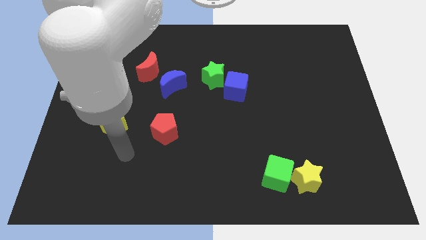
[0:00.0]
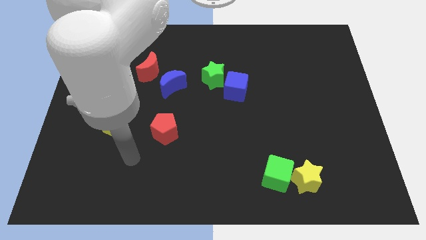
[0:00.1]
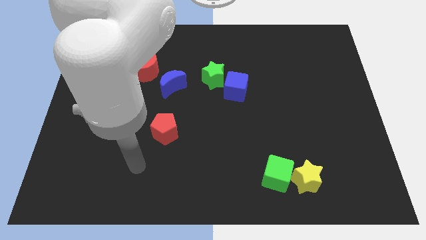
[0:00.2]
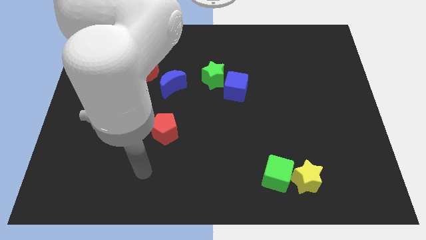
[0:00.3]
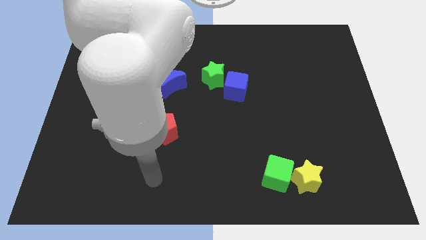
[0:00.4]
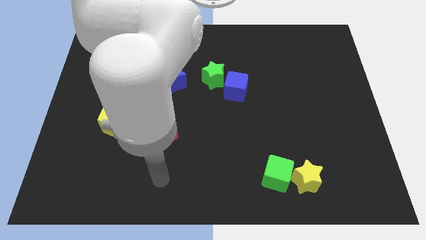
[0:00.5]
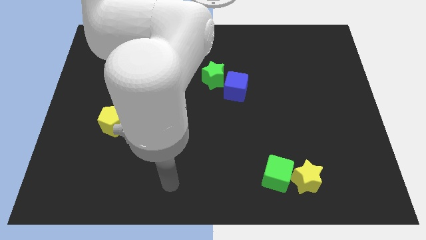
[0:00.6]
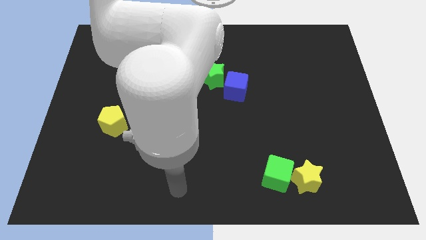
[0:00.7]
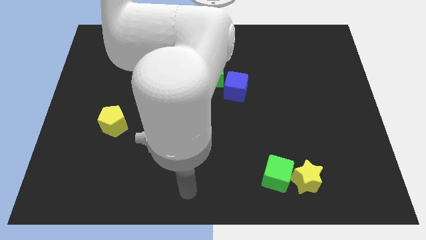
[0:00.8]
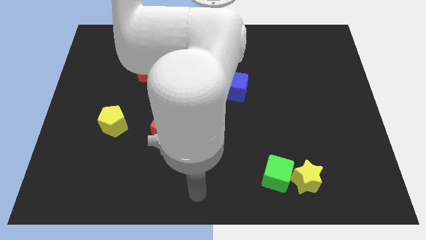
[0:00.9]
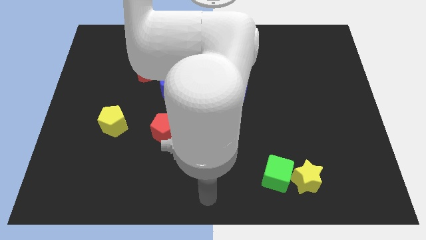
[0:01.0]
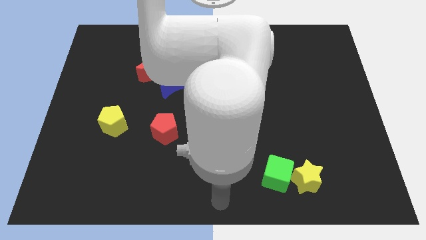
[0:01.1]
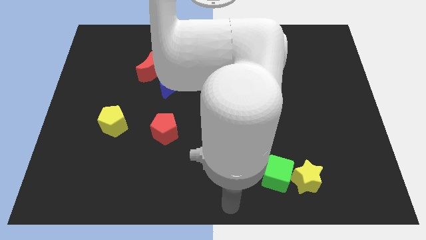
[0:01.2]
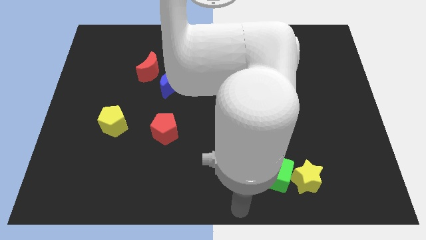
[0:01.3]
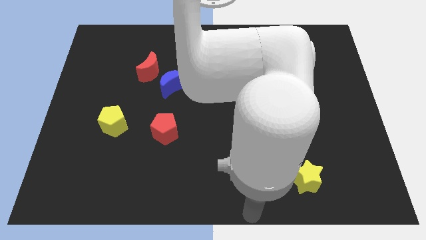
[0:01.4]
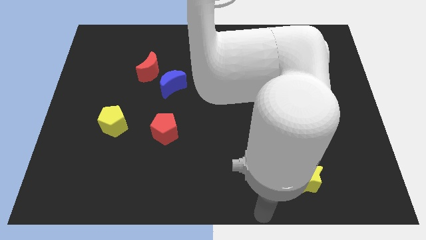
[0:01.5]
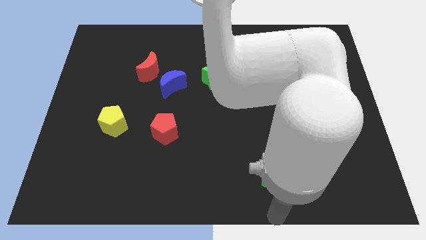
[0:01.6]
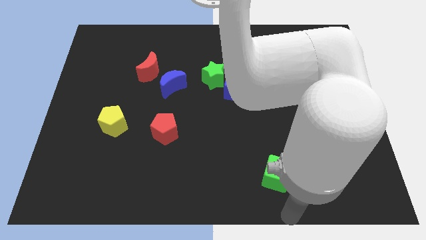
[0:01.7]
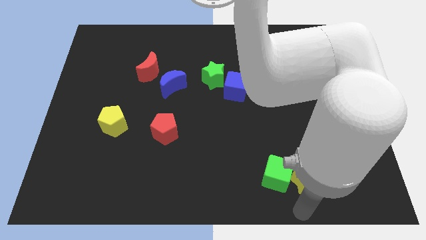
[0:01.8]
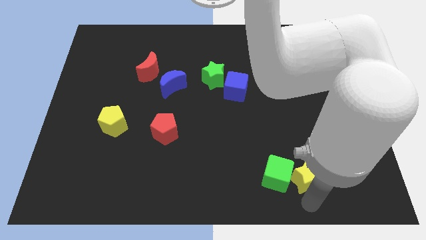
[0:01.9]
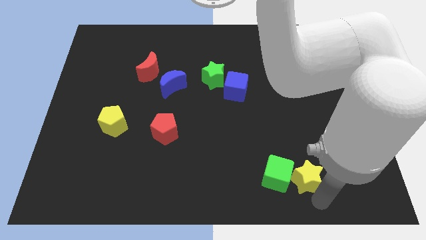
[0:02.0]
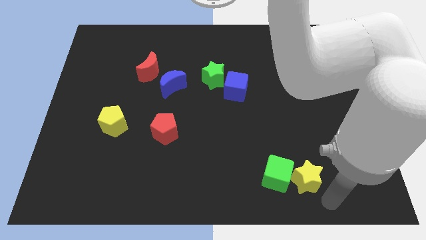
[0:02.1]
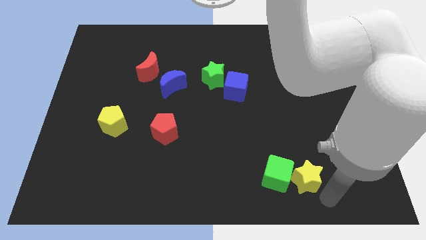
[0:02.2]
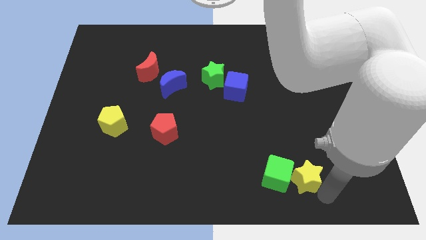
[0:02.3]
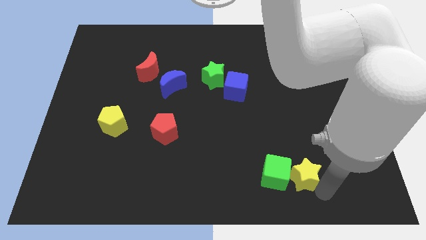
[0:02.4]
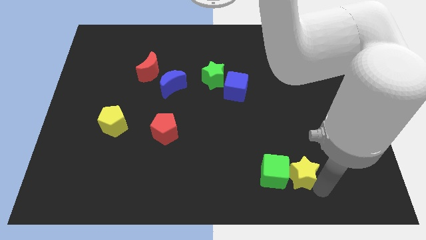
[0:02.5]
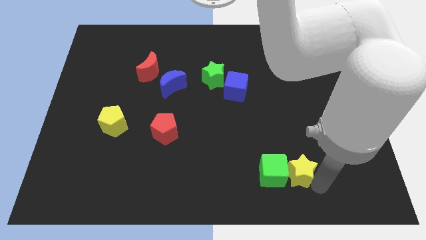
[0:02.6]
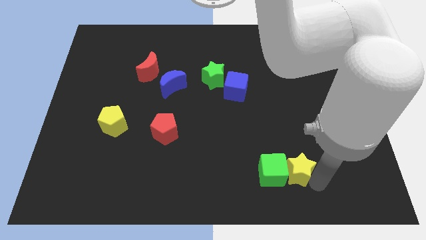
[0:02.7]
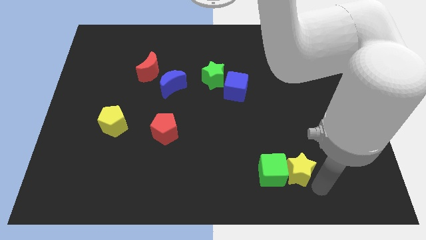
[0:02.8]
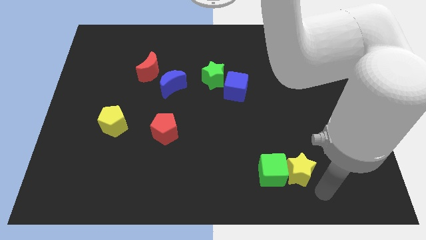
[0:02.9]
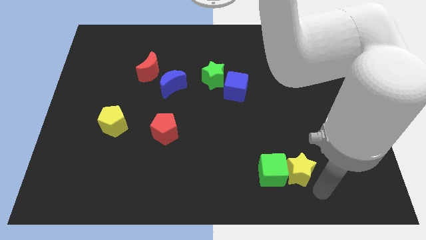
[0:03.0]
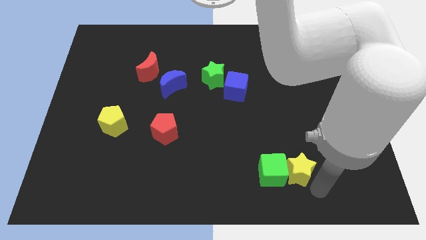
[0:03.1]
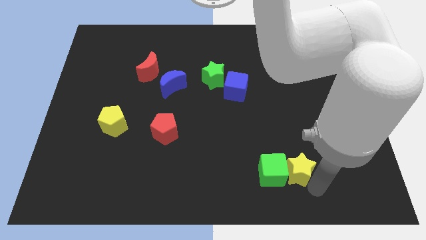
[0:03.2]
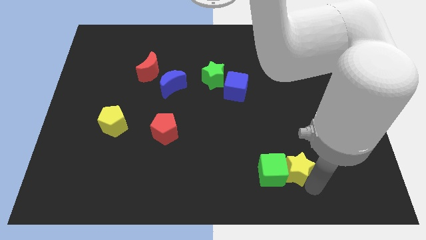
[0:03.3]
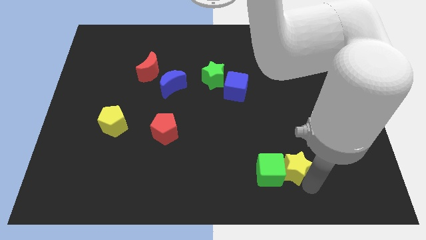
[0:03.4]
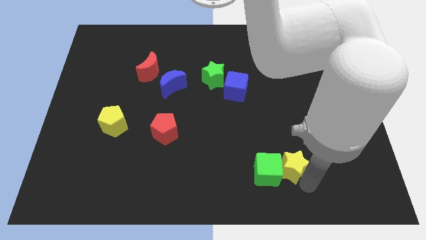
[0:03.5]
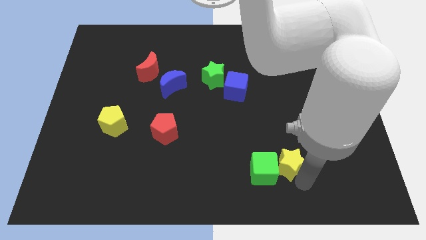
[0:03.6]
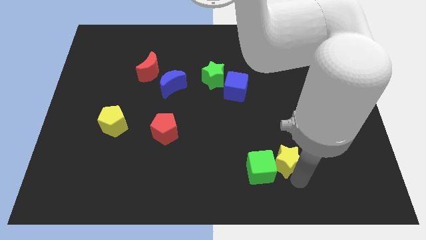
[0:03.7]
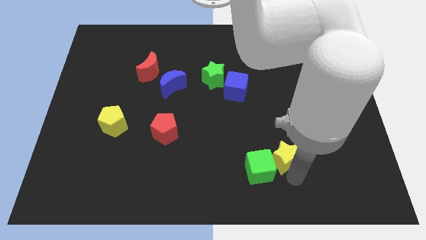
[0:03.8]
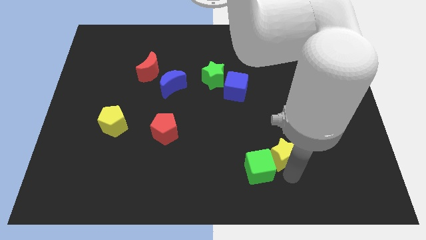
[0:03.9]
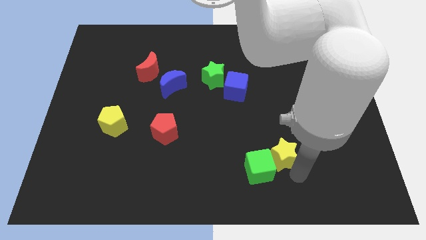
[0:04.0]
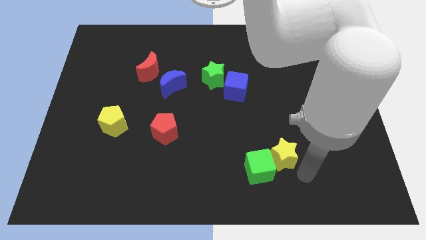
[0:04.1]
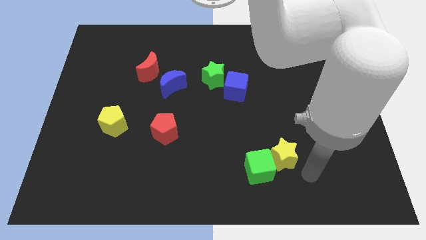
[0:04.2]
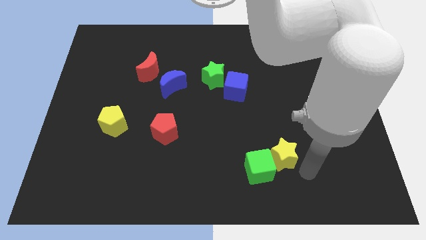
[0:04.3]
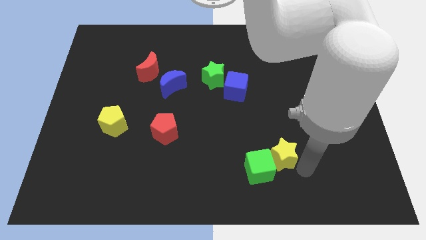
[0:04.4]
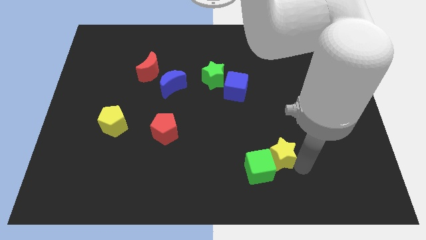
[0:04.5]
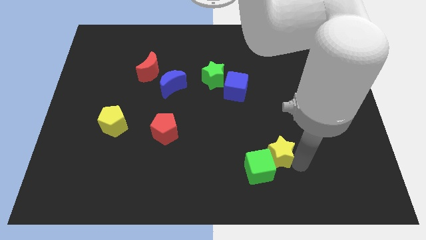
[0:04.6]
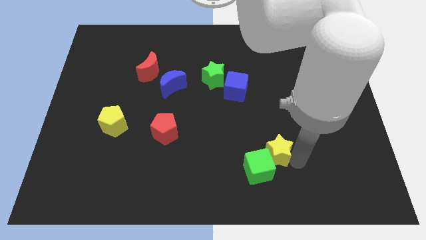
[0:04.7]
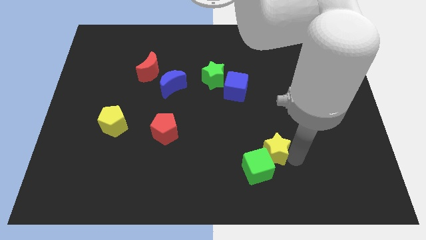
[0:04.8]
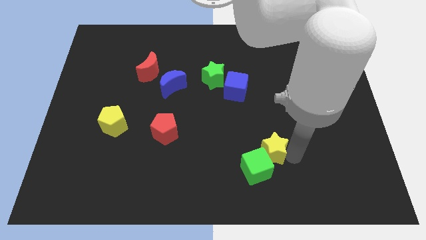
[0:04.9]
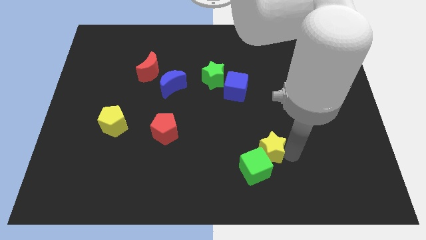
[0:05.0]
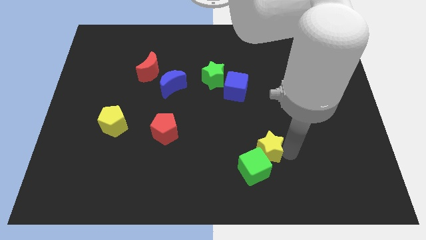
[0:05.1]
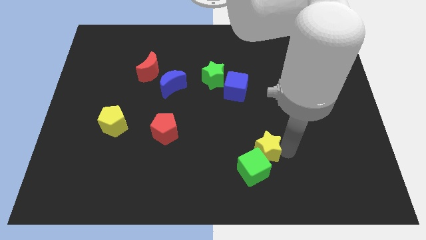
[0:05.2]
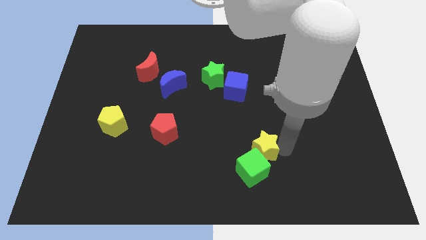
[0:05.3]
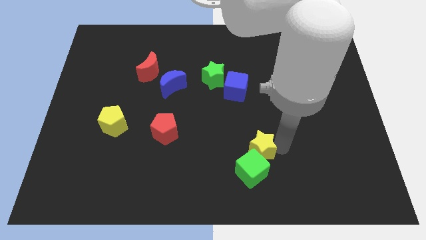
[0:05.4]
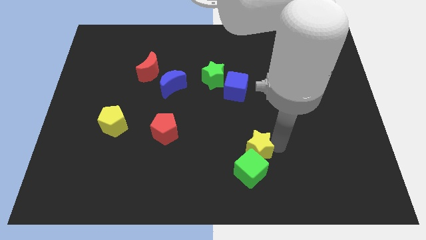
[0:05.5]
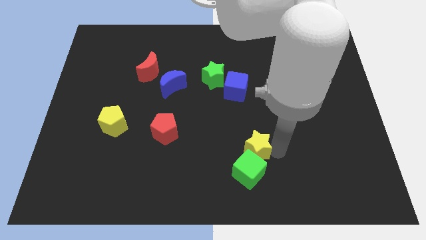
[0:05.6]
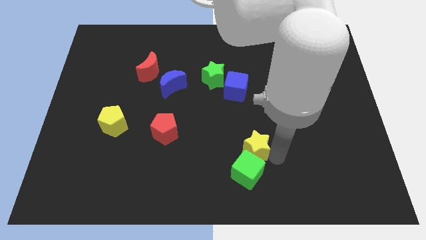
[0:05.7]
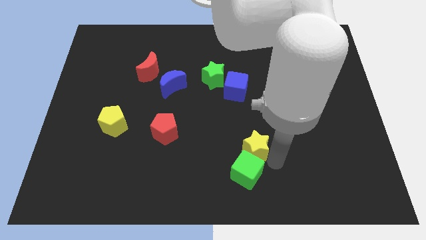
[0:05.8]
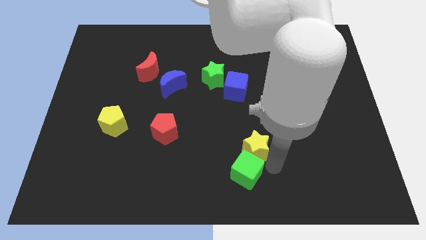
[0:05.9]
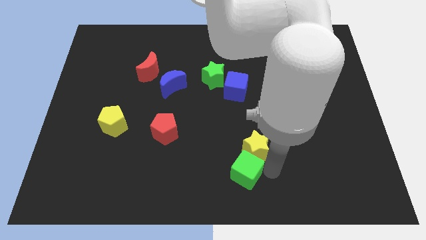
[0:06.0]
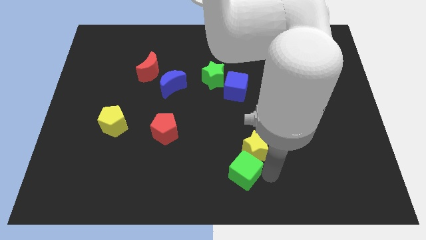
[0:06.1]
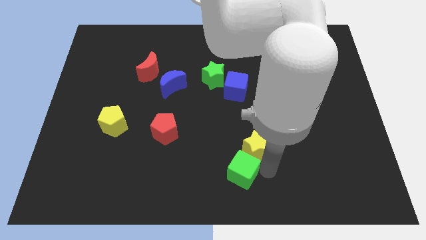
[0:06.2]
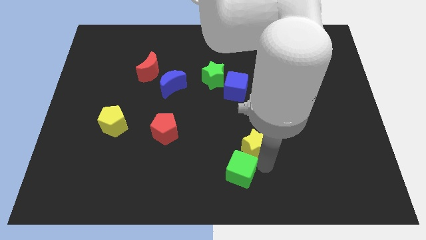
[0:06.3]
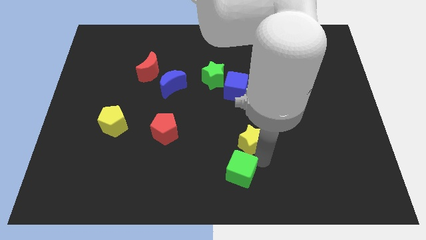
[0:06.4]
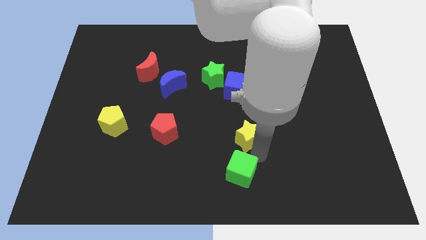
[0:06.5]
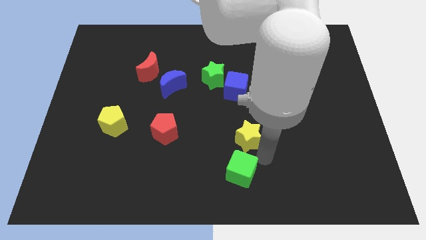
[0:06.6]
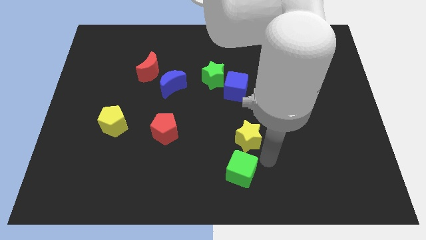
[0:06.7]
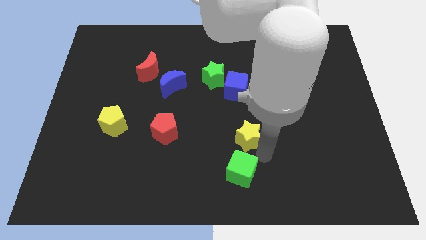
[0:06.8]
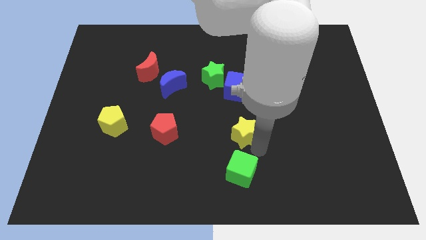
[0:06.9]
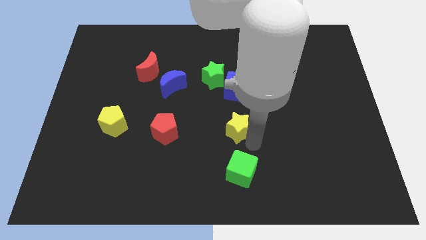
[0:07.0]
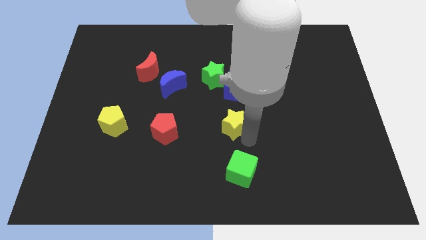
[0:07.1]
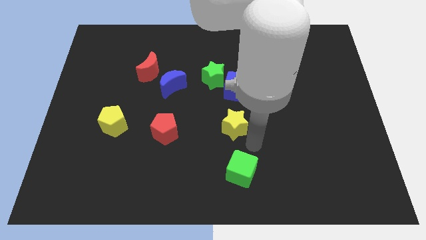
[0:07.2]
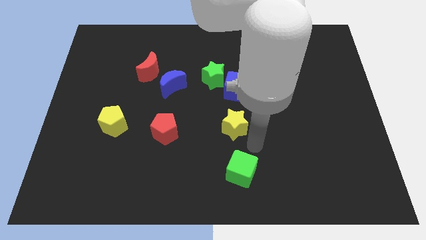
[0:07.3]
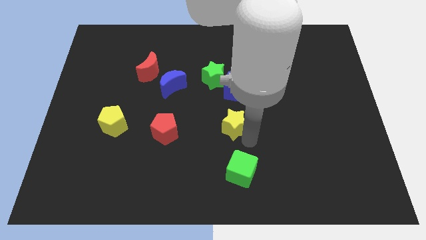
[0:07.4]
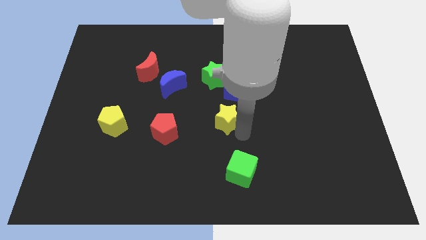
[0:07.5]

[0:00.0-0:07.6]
move the yellow star diagonally up and to the left
